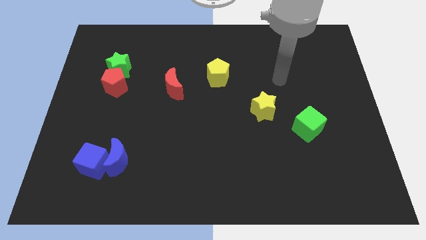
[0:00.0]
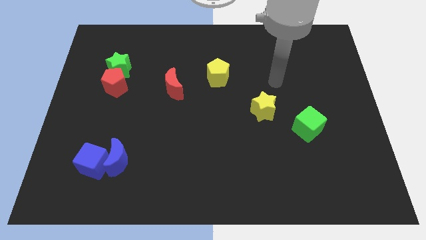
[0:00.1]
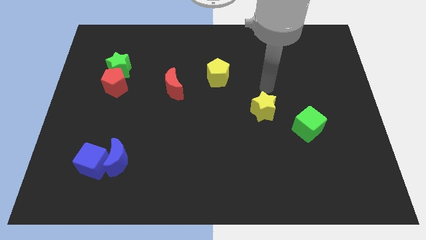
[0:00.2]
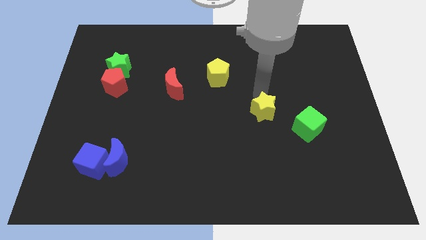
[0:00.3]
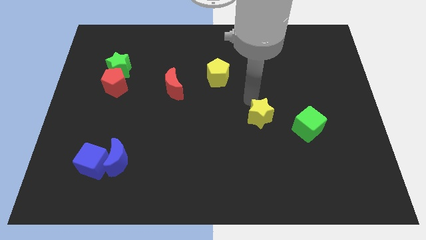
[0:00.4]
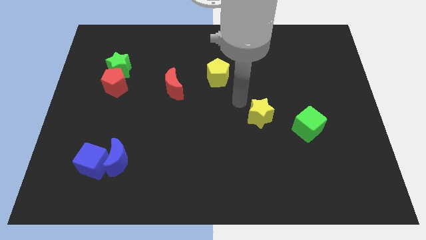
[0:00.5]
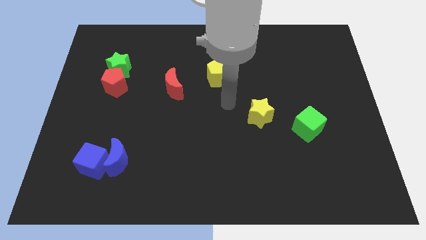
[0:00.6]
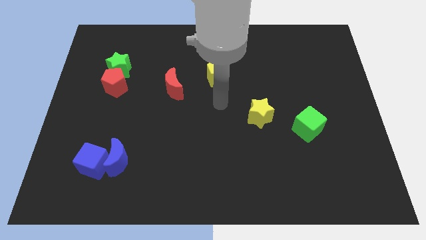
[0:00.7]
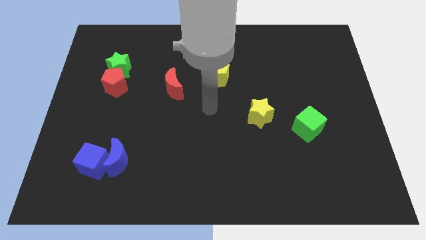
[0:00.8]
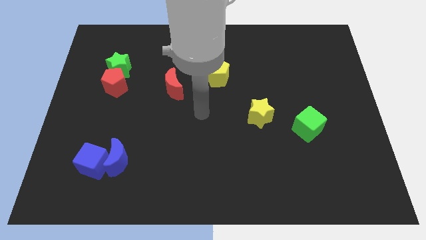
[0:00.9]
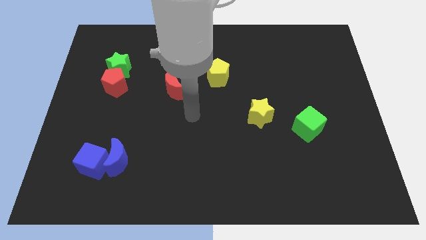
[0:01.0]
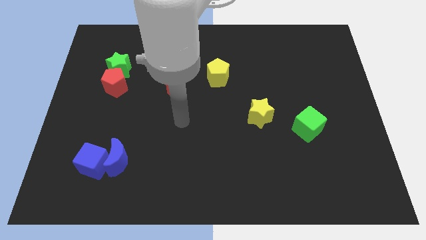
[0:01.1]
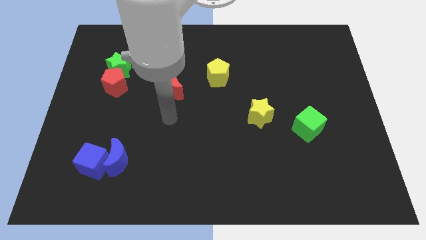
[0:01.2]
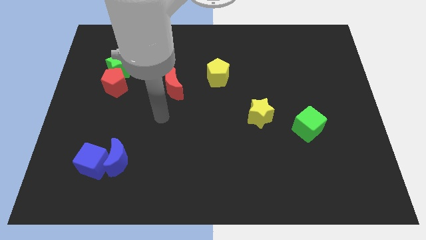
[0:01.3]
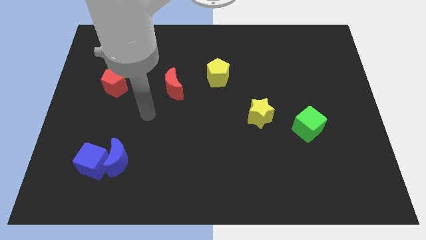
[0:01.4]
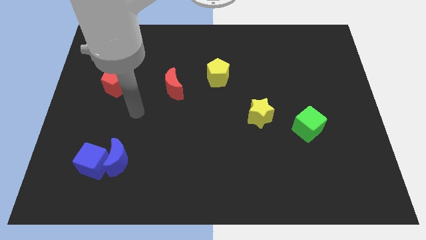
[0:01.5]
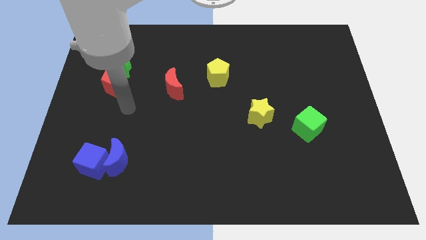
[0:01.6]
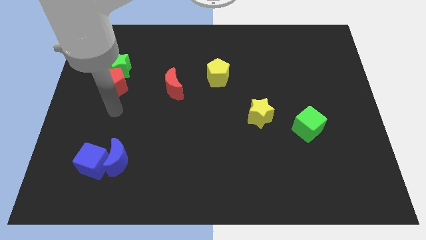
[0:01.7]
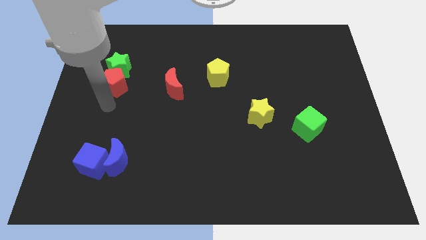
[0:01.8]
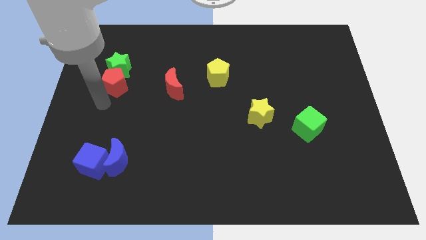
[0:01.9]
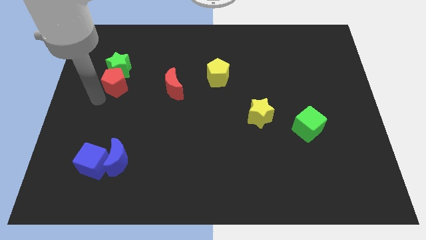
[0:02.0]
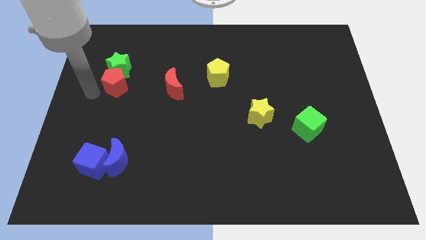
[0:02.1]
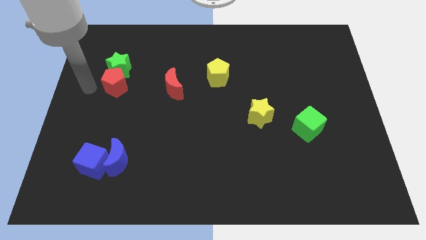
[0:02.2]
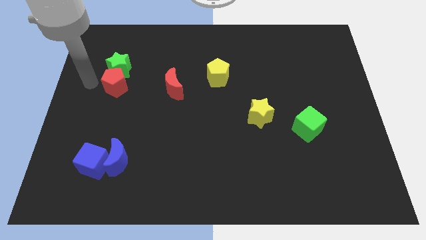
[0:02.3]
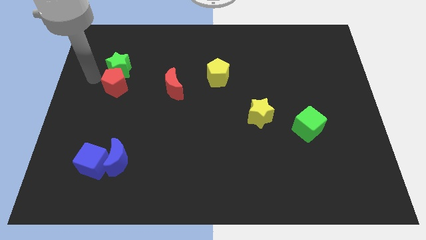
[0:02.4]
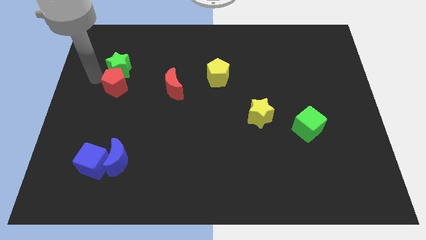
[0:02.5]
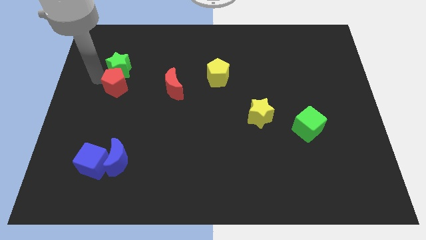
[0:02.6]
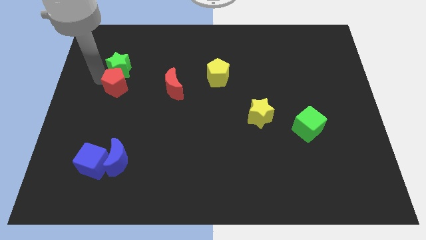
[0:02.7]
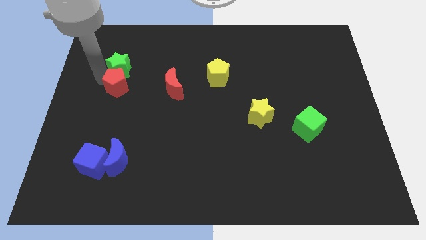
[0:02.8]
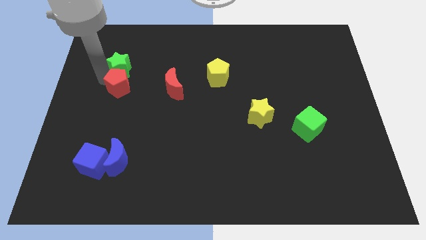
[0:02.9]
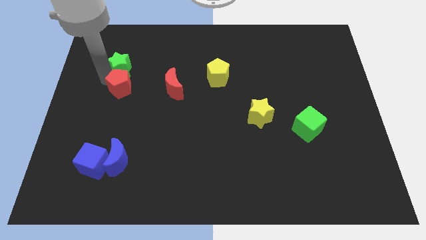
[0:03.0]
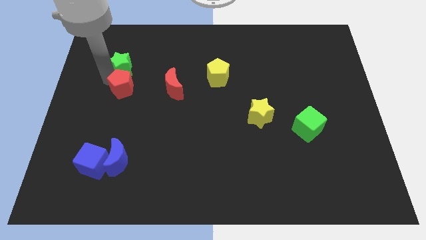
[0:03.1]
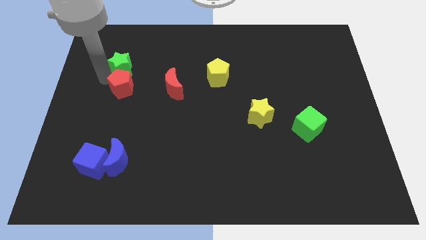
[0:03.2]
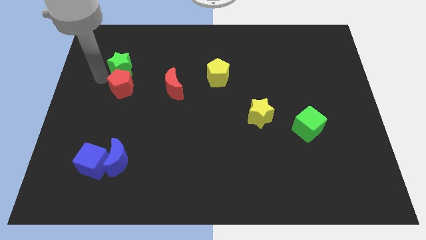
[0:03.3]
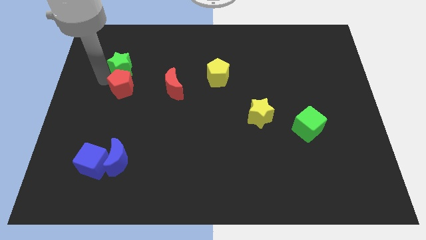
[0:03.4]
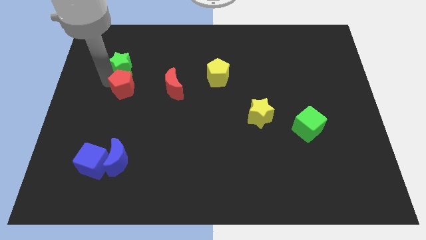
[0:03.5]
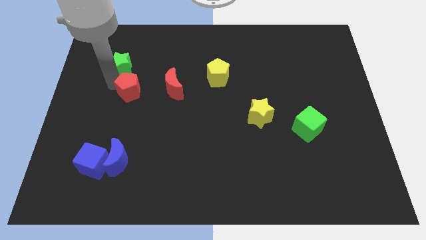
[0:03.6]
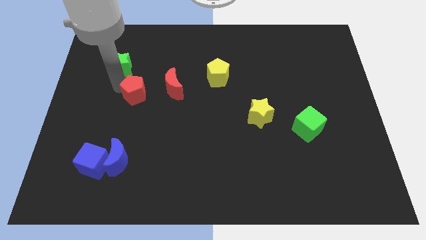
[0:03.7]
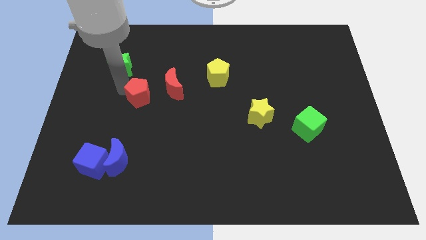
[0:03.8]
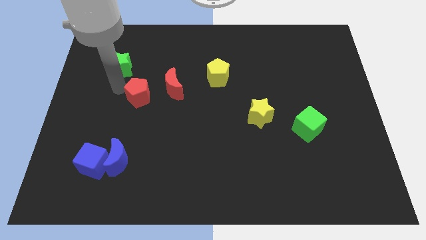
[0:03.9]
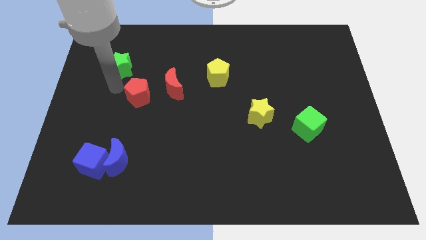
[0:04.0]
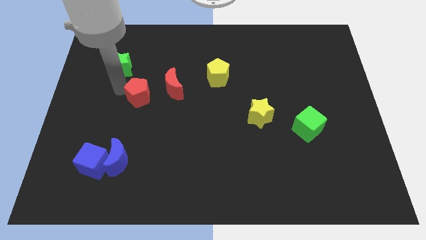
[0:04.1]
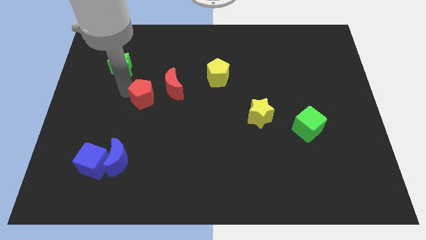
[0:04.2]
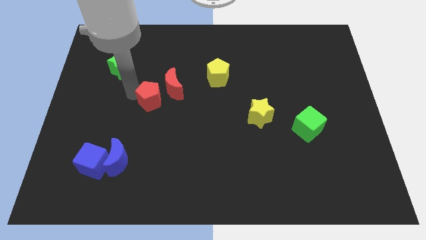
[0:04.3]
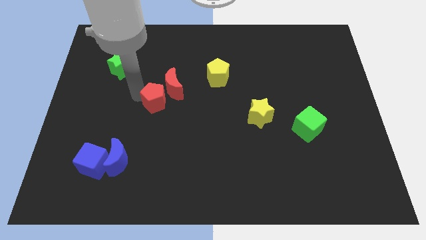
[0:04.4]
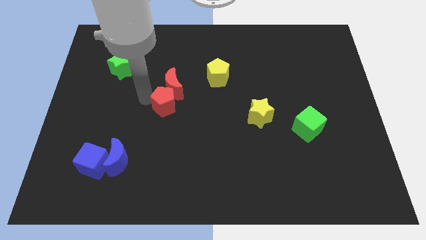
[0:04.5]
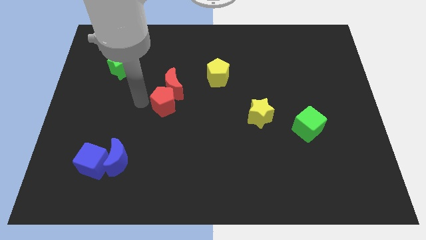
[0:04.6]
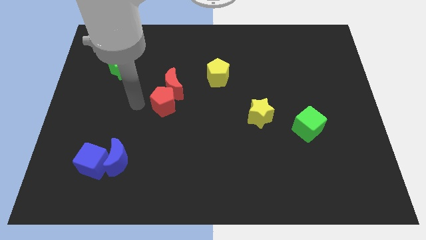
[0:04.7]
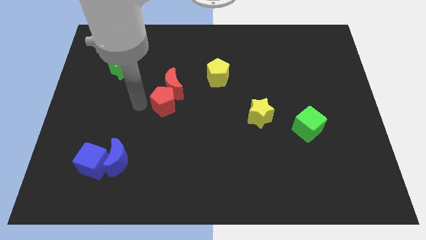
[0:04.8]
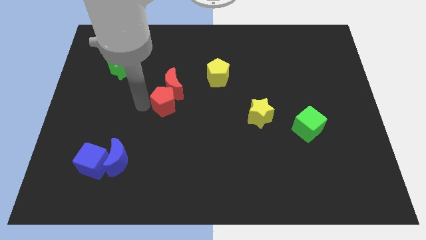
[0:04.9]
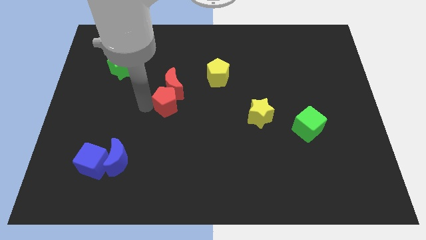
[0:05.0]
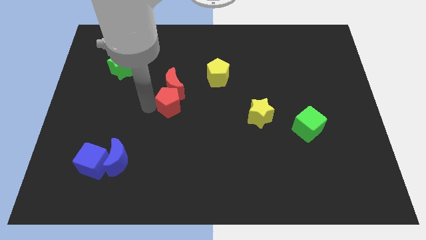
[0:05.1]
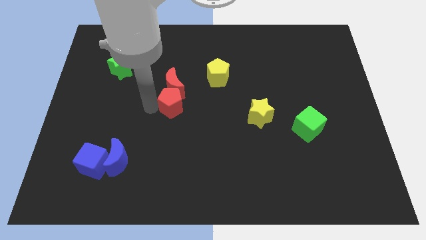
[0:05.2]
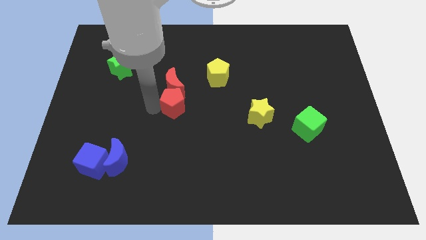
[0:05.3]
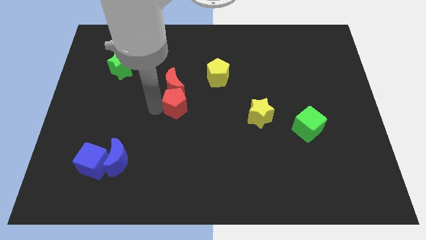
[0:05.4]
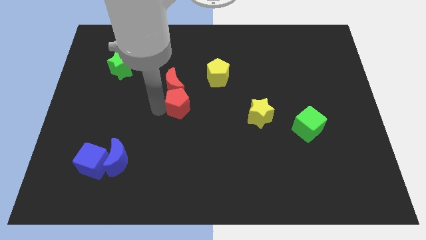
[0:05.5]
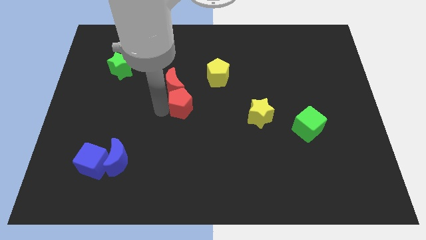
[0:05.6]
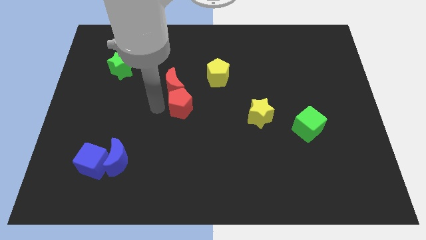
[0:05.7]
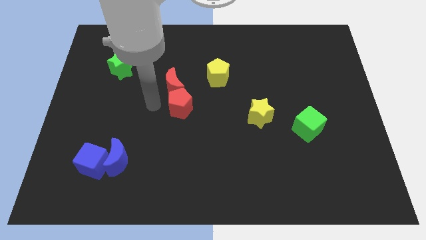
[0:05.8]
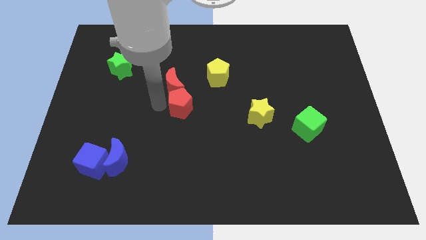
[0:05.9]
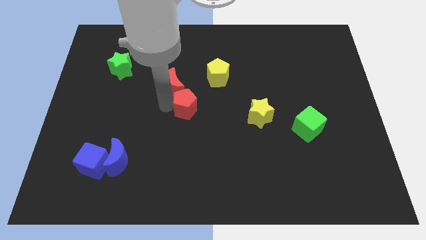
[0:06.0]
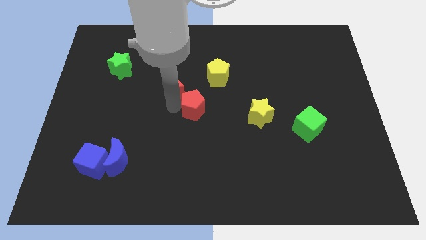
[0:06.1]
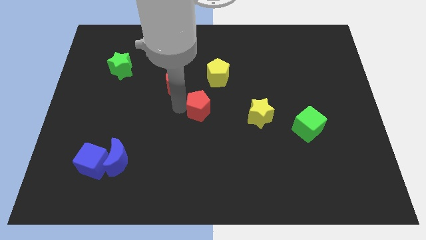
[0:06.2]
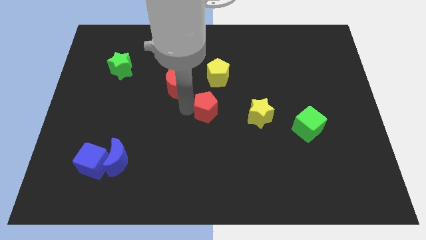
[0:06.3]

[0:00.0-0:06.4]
slide the red pentagon to the right

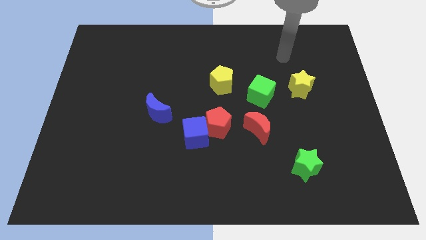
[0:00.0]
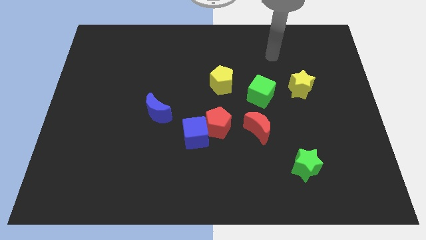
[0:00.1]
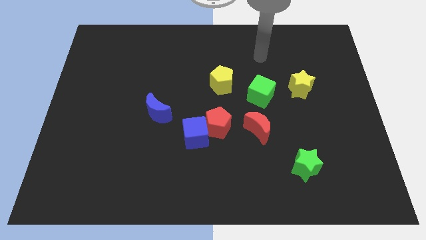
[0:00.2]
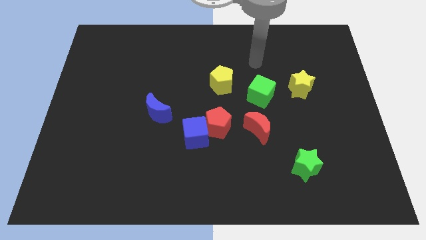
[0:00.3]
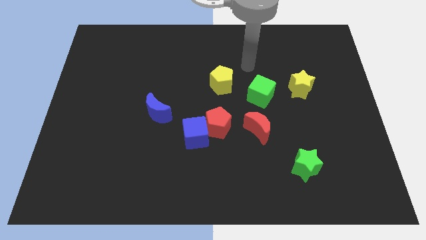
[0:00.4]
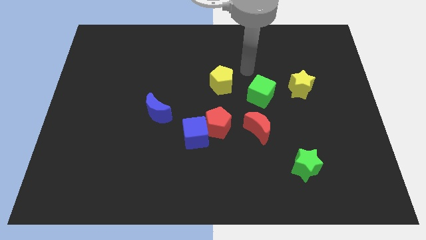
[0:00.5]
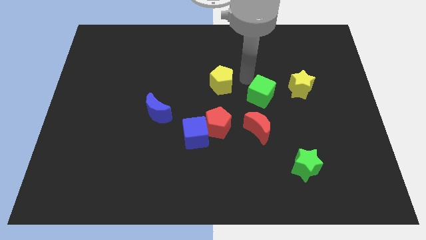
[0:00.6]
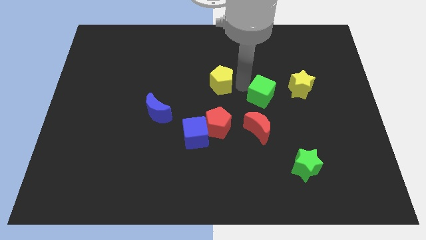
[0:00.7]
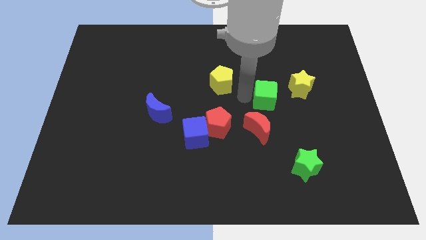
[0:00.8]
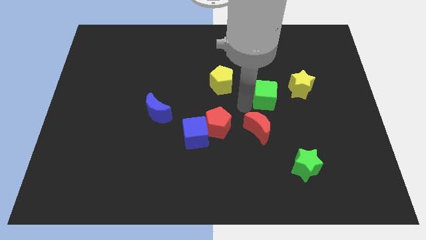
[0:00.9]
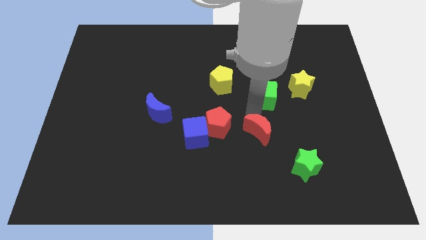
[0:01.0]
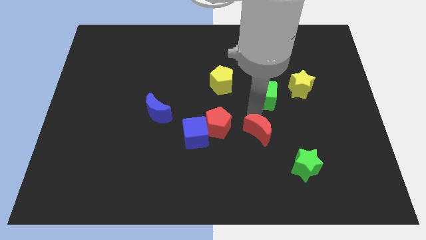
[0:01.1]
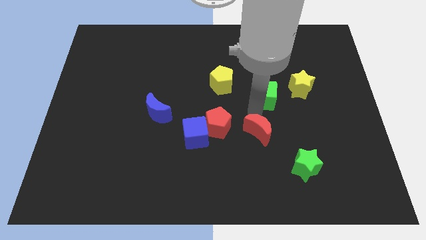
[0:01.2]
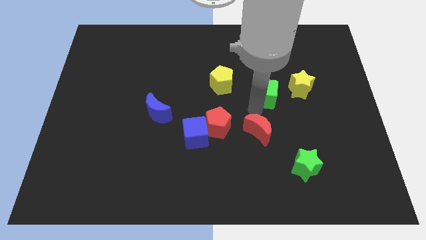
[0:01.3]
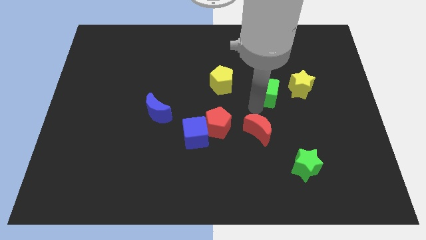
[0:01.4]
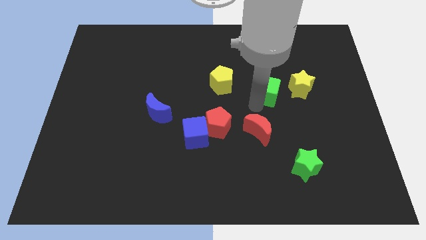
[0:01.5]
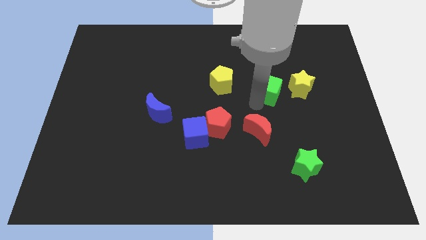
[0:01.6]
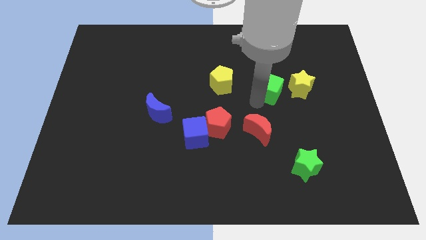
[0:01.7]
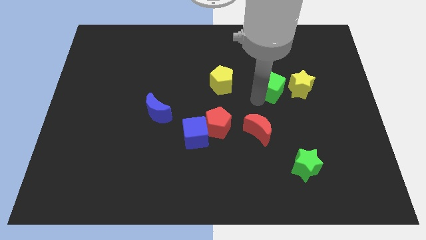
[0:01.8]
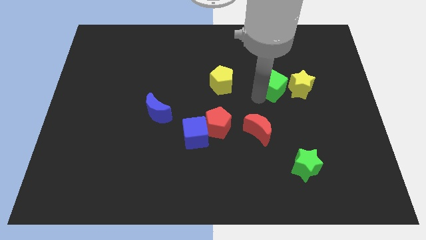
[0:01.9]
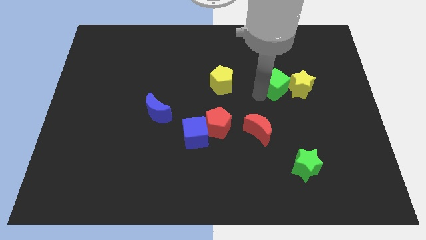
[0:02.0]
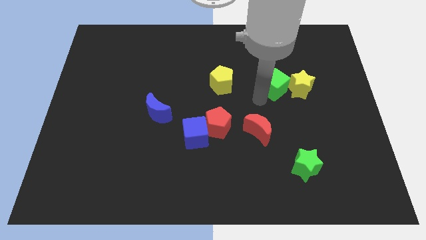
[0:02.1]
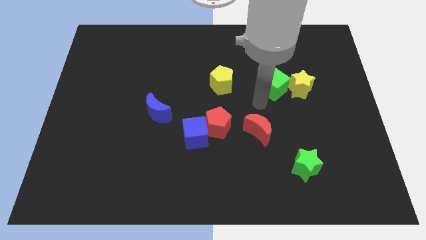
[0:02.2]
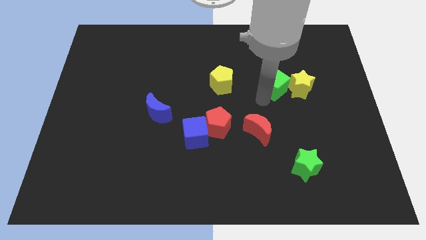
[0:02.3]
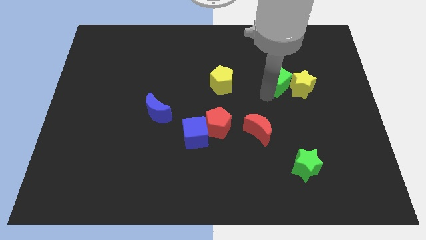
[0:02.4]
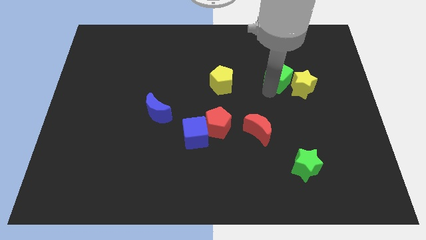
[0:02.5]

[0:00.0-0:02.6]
slightly slide the green cube upwards and then to the right
